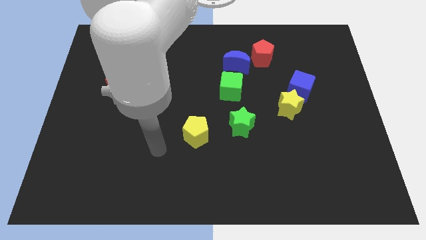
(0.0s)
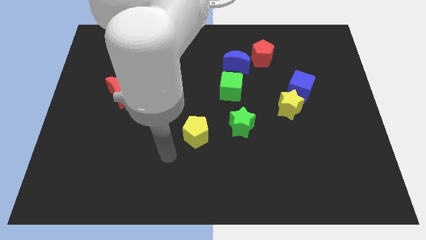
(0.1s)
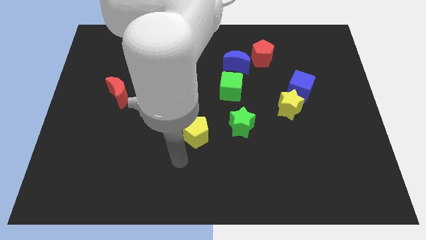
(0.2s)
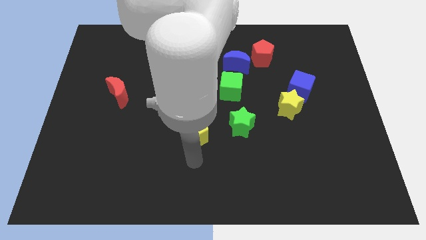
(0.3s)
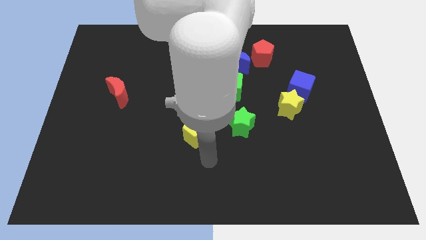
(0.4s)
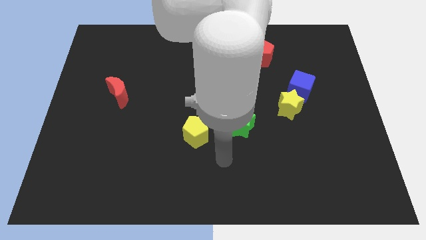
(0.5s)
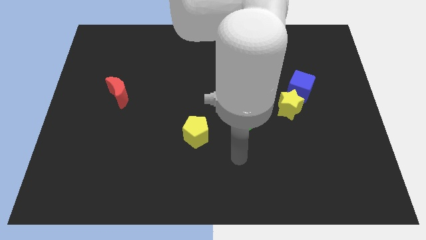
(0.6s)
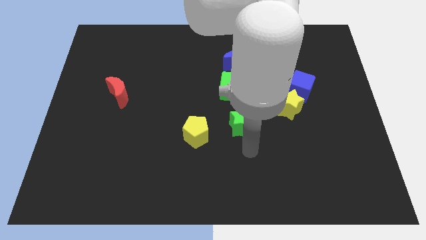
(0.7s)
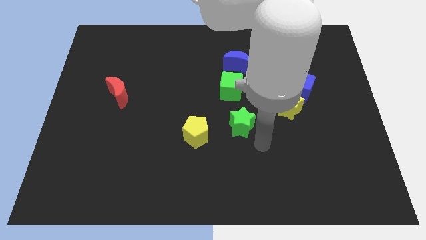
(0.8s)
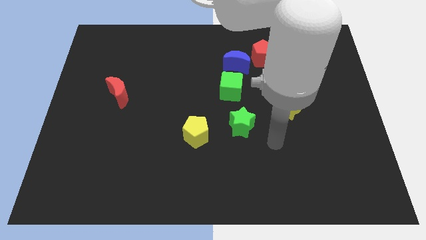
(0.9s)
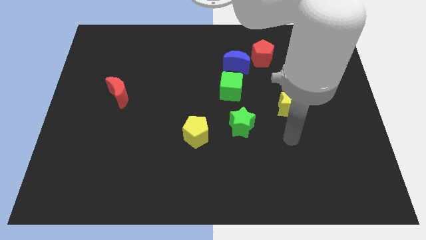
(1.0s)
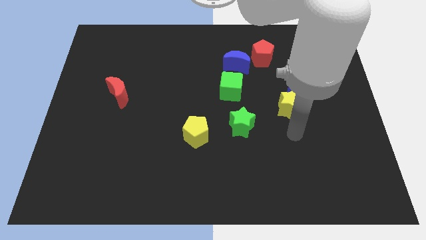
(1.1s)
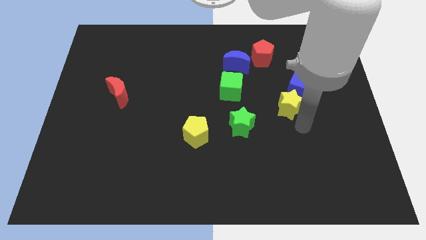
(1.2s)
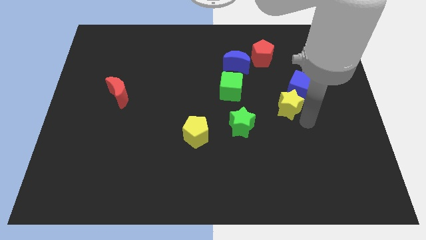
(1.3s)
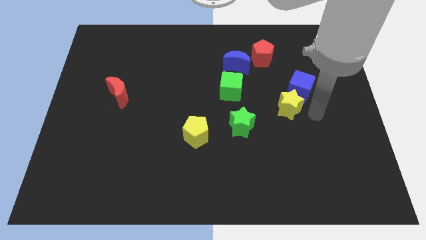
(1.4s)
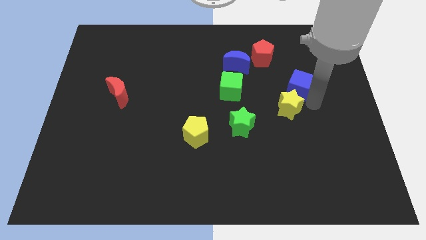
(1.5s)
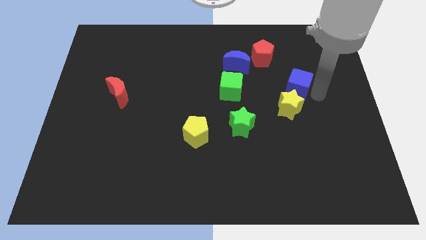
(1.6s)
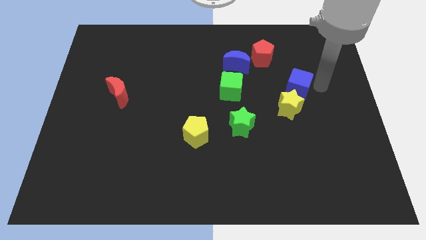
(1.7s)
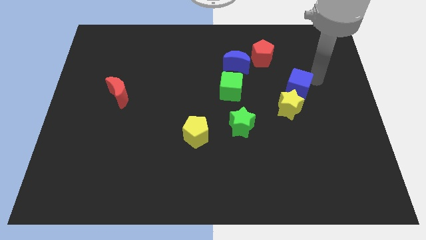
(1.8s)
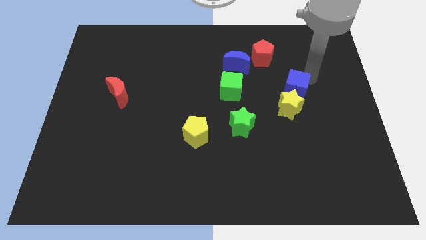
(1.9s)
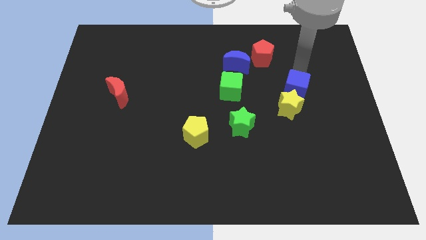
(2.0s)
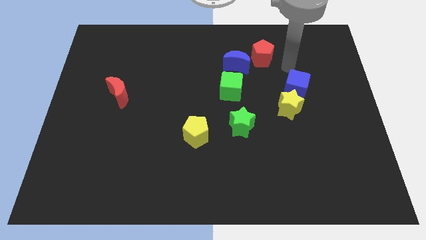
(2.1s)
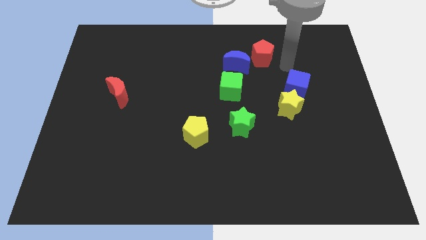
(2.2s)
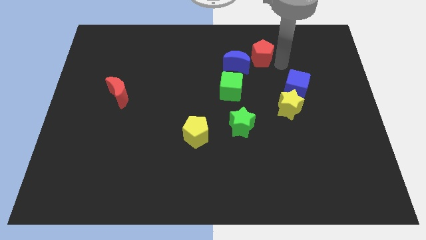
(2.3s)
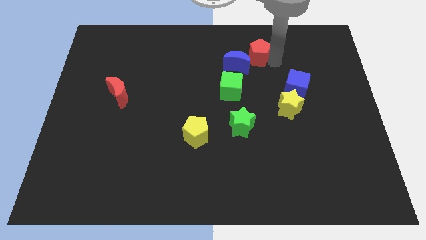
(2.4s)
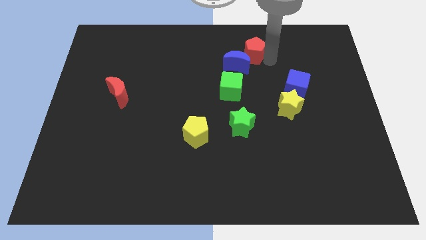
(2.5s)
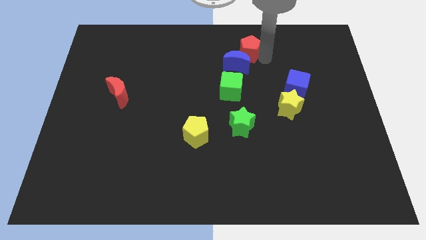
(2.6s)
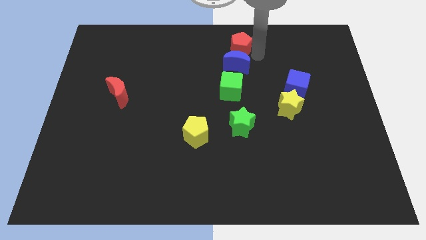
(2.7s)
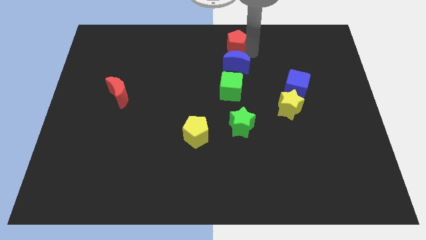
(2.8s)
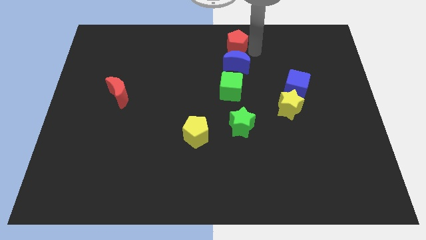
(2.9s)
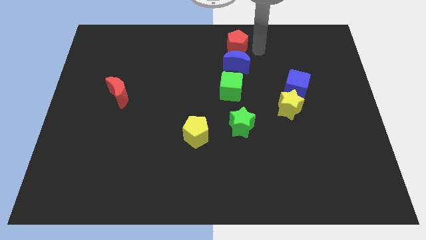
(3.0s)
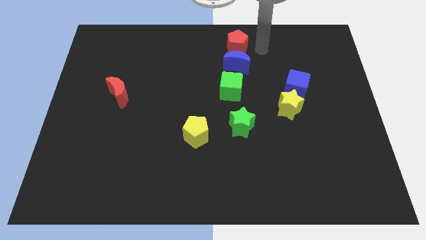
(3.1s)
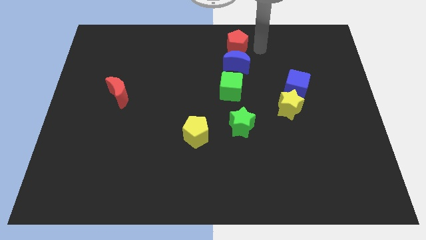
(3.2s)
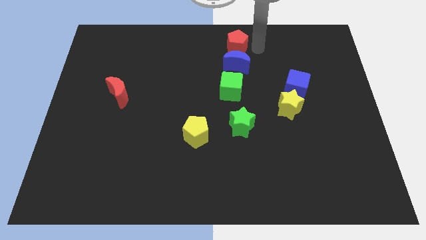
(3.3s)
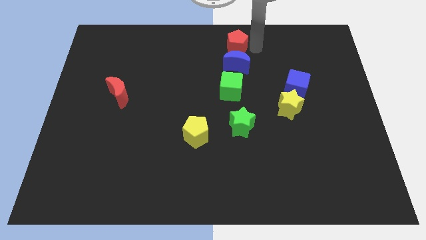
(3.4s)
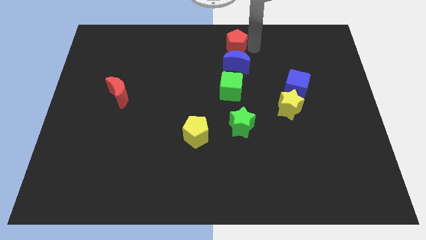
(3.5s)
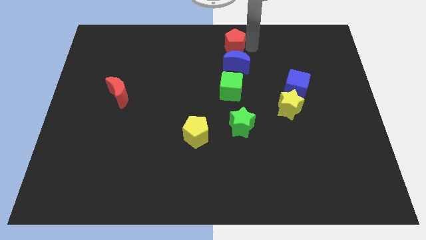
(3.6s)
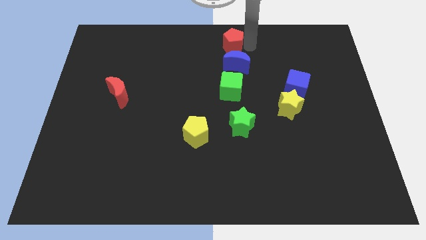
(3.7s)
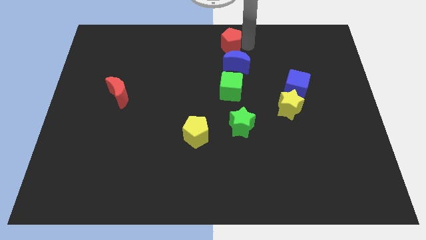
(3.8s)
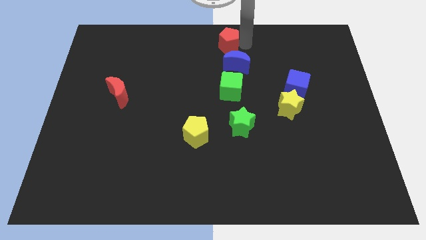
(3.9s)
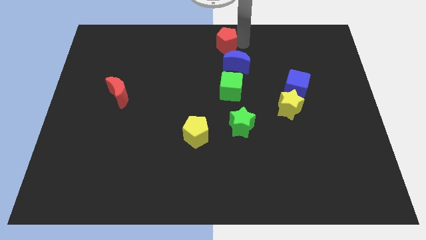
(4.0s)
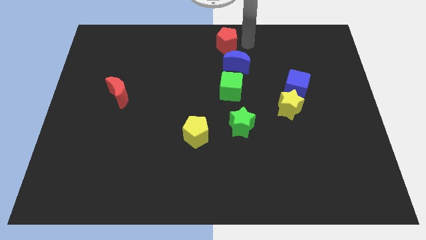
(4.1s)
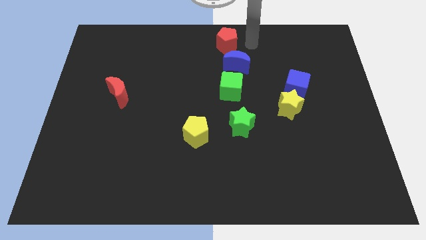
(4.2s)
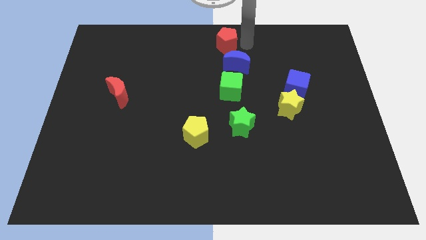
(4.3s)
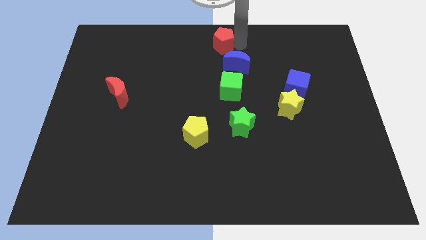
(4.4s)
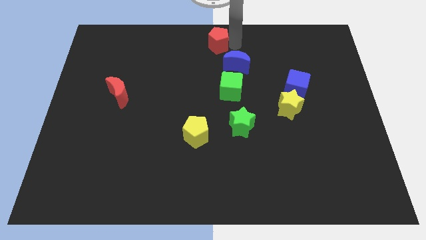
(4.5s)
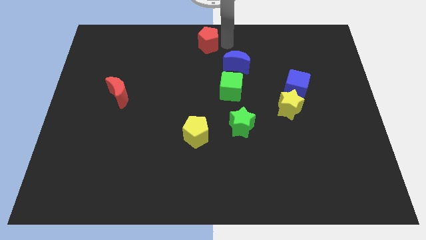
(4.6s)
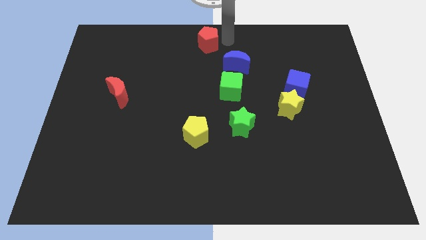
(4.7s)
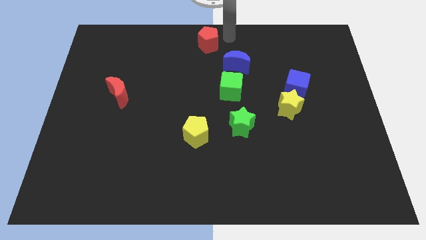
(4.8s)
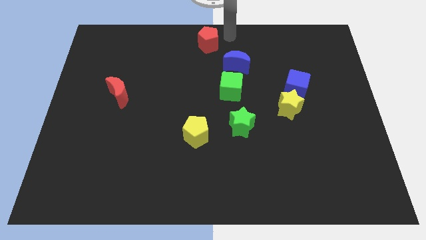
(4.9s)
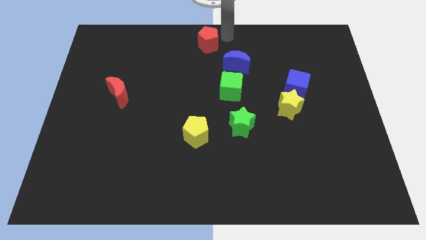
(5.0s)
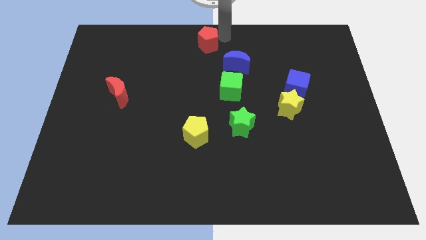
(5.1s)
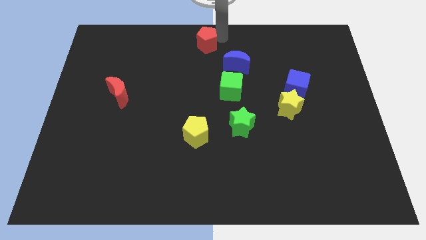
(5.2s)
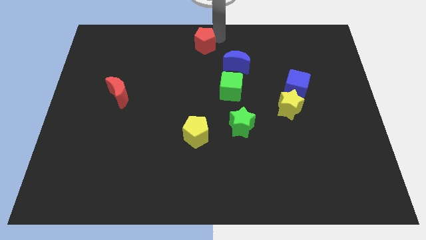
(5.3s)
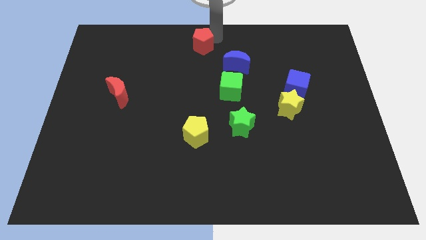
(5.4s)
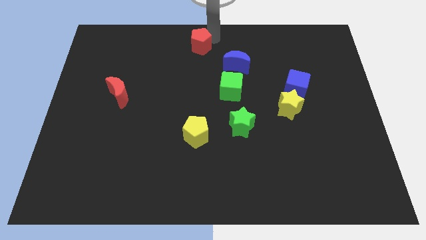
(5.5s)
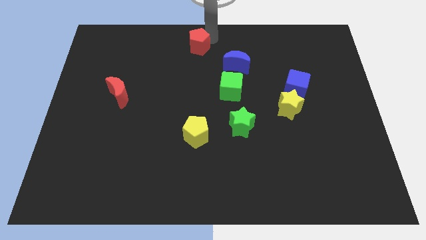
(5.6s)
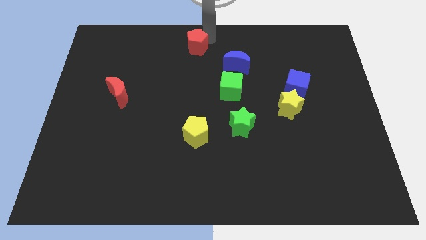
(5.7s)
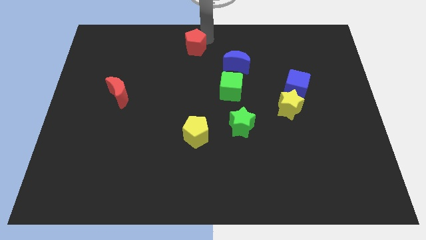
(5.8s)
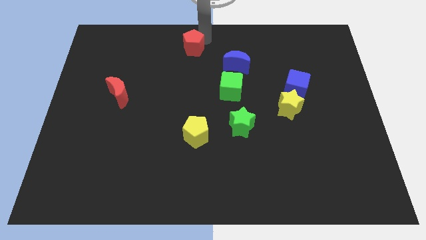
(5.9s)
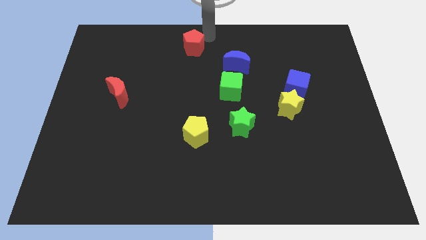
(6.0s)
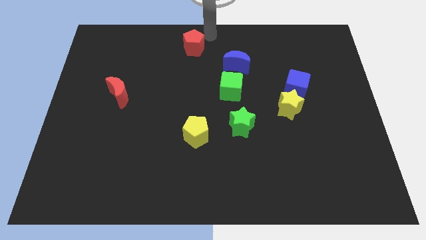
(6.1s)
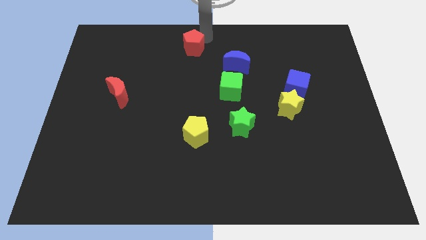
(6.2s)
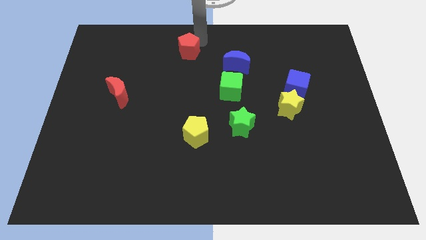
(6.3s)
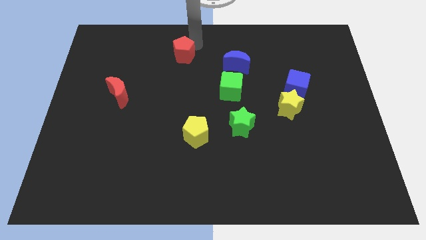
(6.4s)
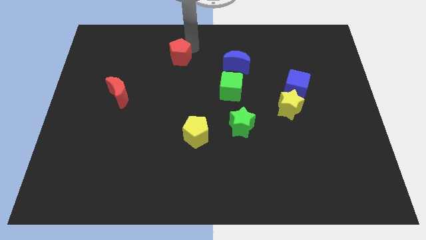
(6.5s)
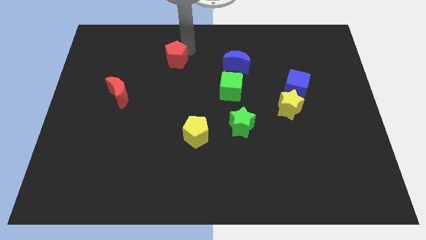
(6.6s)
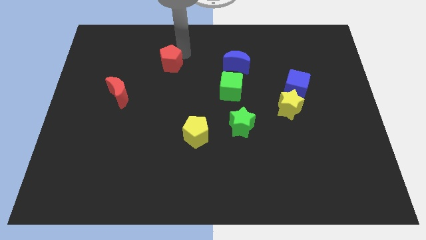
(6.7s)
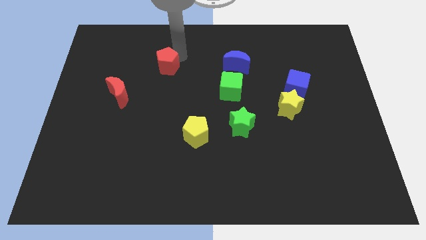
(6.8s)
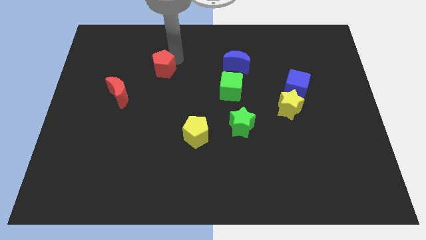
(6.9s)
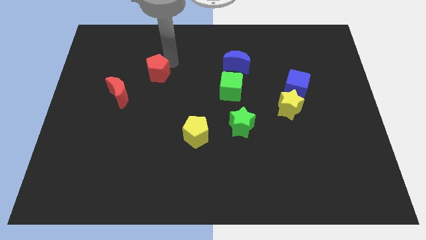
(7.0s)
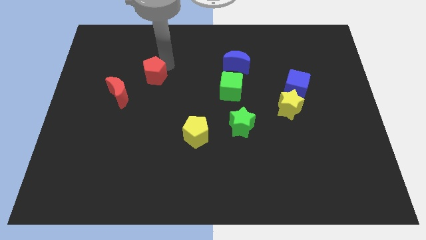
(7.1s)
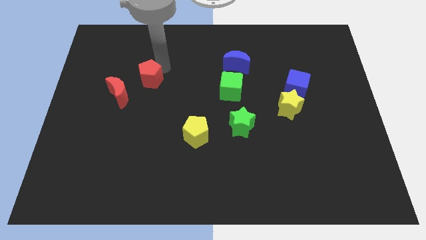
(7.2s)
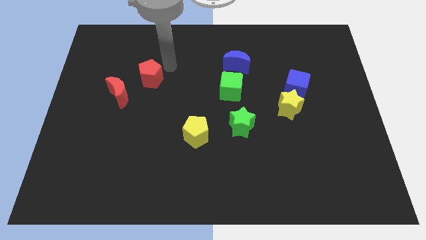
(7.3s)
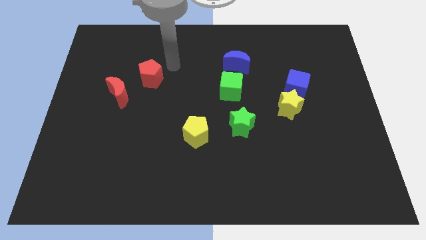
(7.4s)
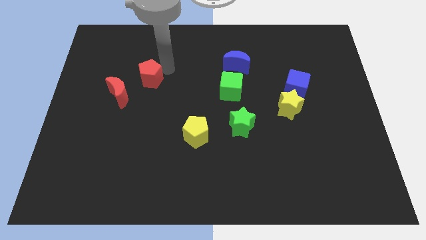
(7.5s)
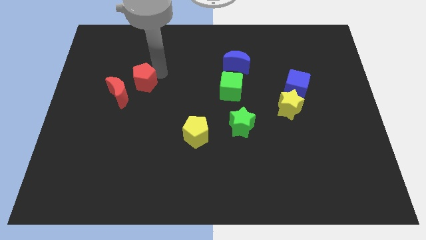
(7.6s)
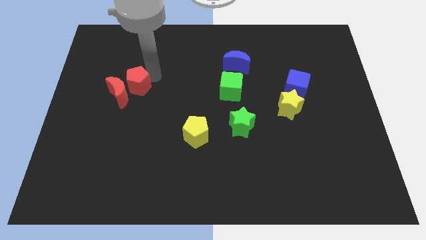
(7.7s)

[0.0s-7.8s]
slide the red pentagon towards the red moon
